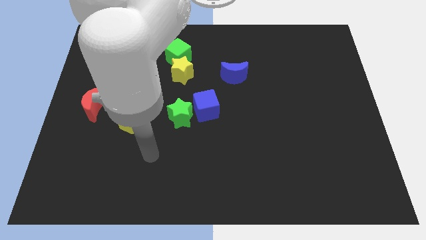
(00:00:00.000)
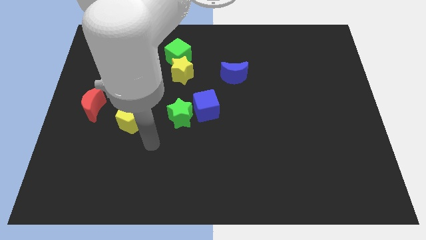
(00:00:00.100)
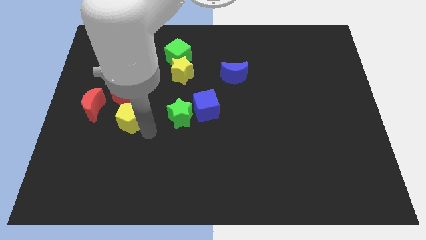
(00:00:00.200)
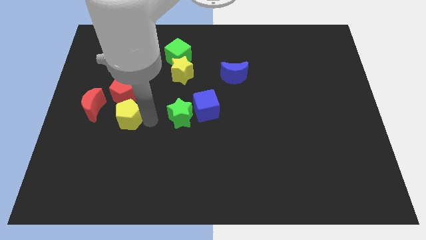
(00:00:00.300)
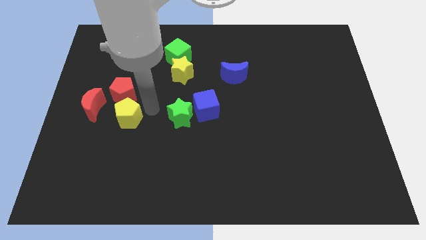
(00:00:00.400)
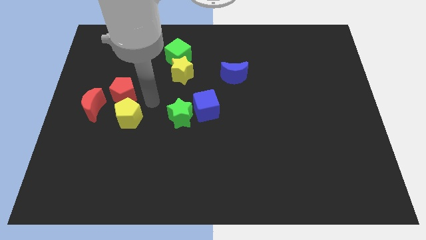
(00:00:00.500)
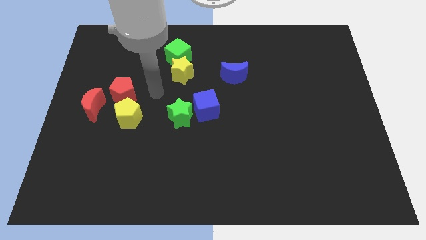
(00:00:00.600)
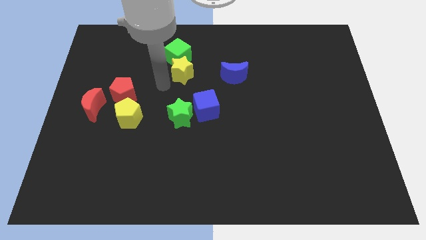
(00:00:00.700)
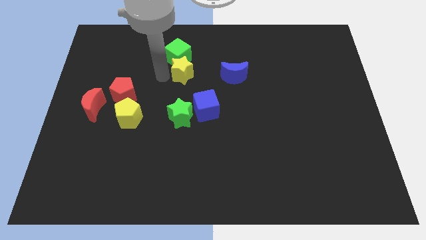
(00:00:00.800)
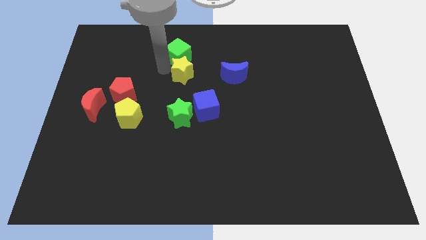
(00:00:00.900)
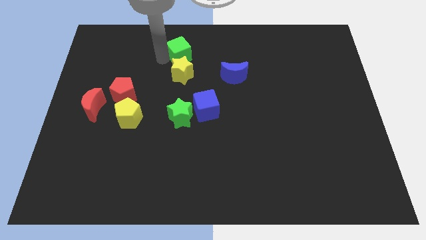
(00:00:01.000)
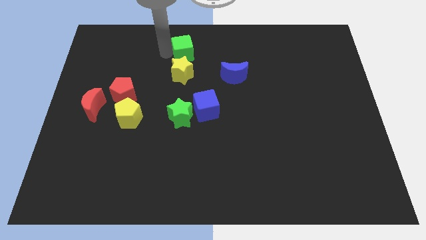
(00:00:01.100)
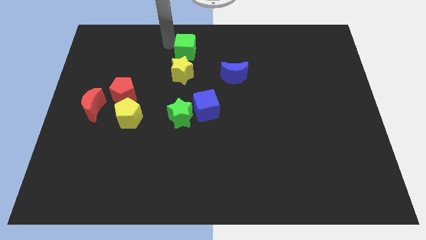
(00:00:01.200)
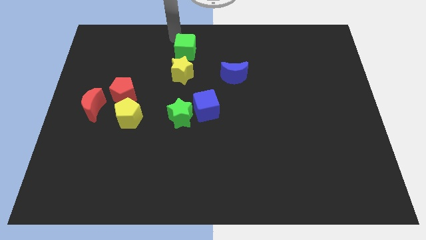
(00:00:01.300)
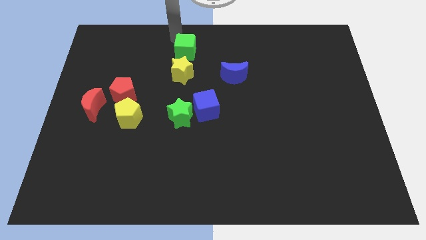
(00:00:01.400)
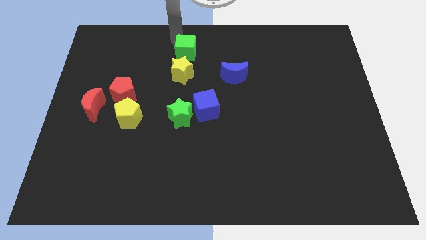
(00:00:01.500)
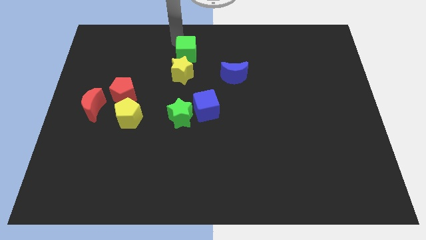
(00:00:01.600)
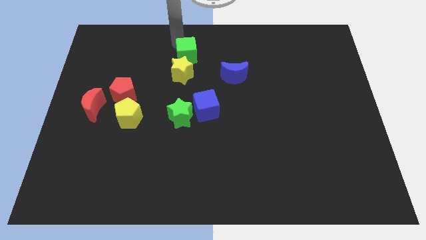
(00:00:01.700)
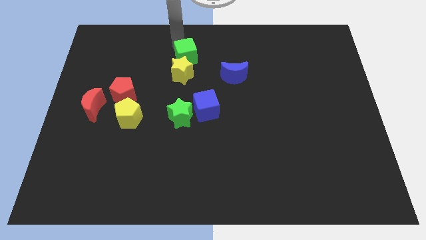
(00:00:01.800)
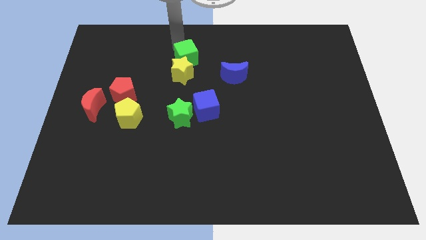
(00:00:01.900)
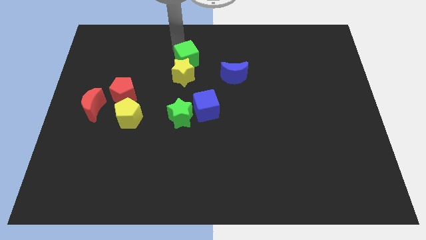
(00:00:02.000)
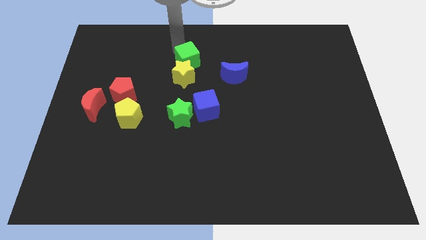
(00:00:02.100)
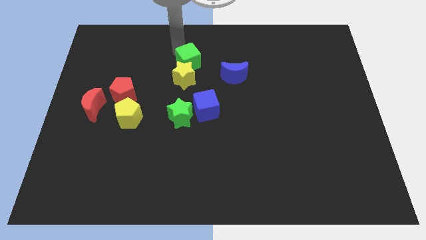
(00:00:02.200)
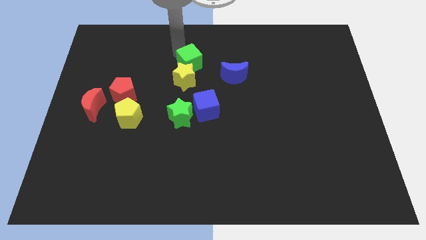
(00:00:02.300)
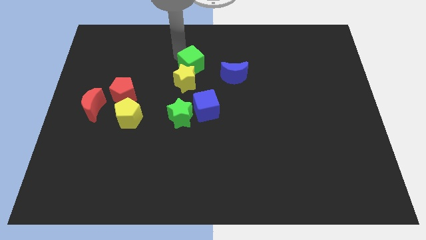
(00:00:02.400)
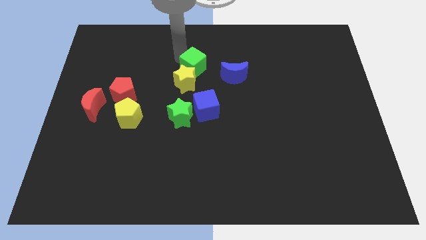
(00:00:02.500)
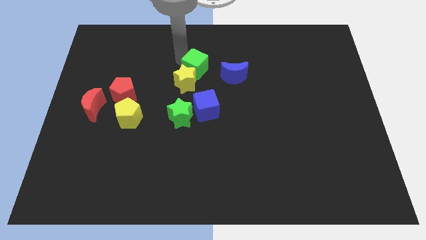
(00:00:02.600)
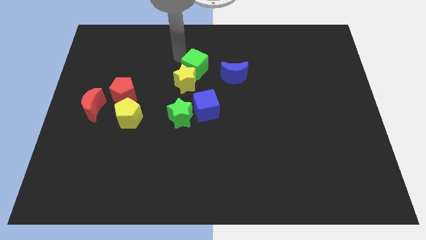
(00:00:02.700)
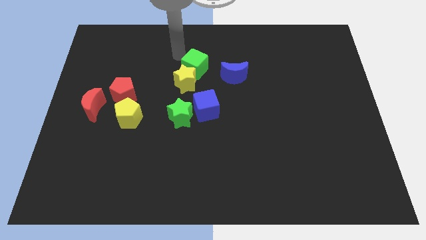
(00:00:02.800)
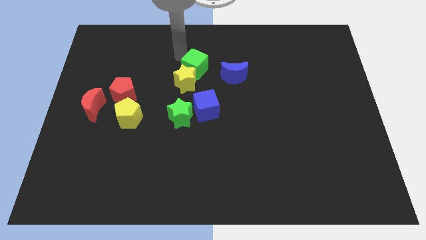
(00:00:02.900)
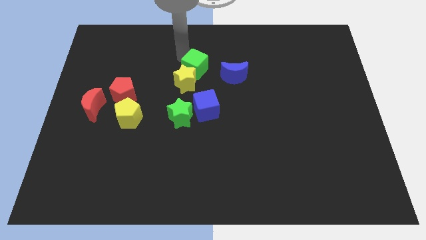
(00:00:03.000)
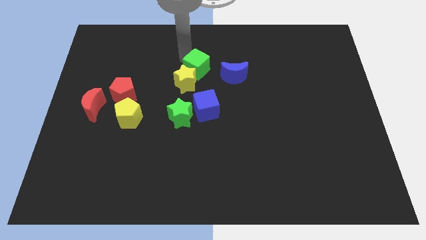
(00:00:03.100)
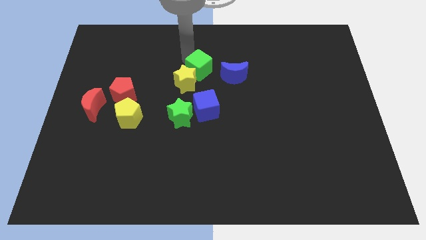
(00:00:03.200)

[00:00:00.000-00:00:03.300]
push the green cube down and to the right slightly

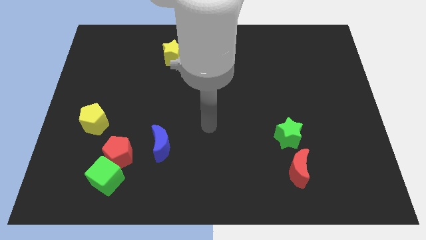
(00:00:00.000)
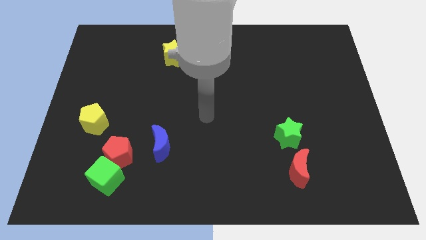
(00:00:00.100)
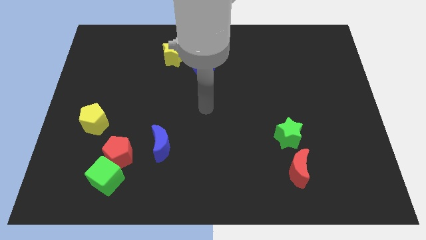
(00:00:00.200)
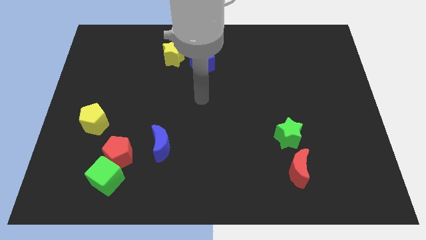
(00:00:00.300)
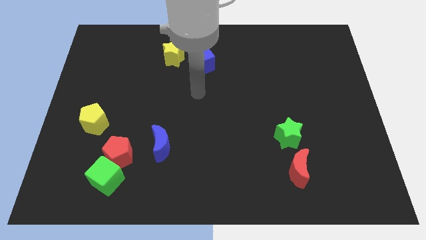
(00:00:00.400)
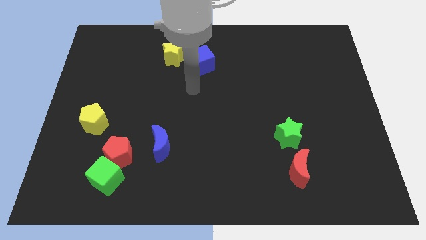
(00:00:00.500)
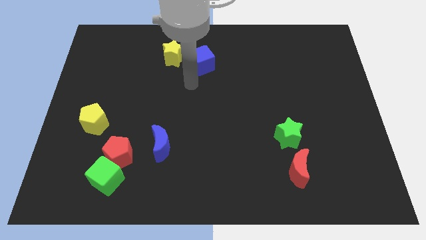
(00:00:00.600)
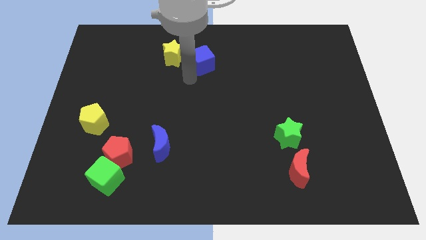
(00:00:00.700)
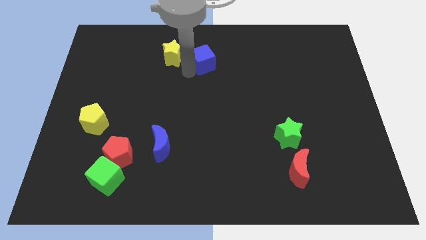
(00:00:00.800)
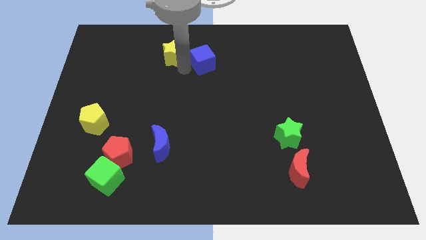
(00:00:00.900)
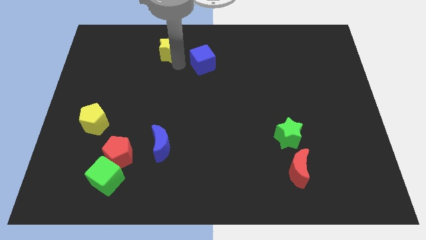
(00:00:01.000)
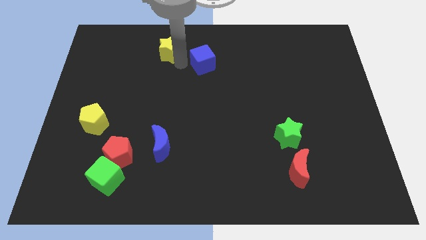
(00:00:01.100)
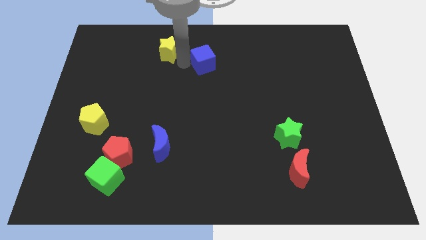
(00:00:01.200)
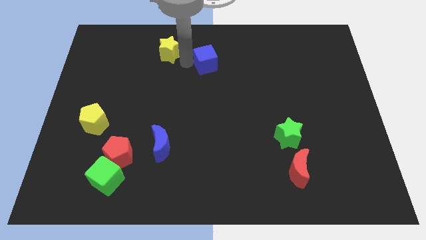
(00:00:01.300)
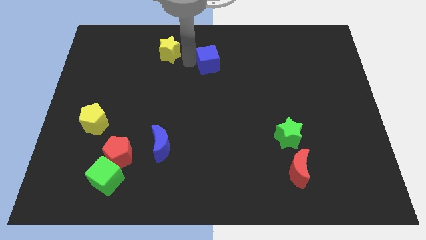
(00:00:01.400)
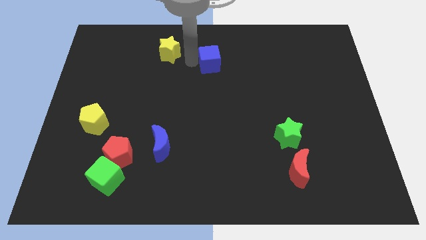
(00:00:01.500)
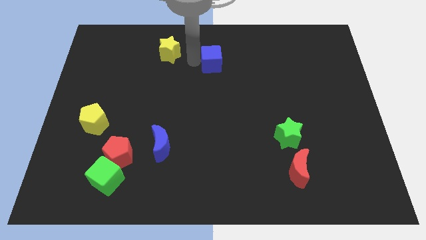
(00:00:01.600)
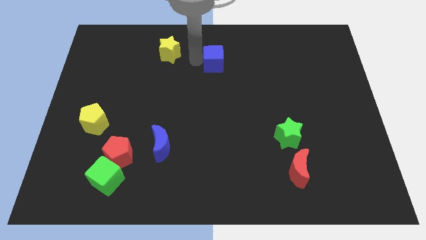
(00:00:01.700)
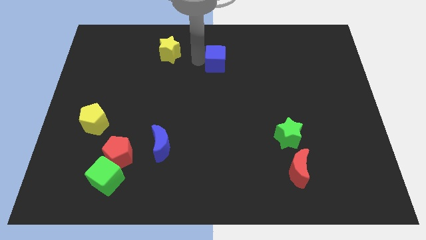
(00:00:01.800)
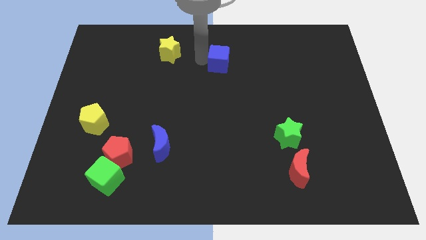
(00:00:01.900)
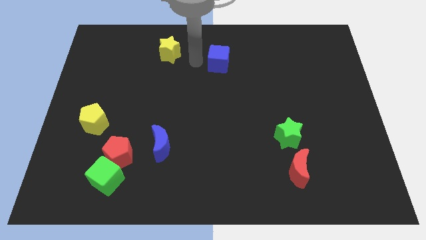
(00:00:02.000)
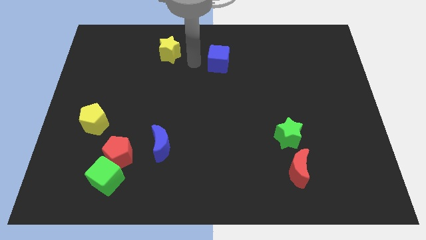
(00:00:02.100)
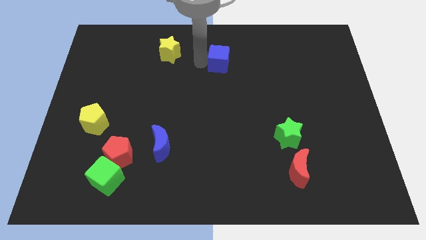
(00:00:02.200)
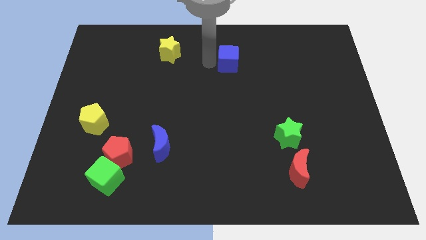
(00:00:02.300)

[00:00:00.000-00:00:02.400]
slightly push the blue cube right

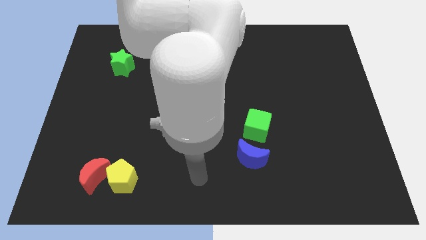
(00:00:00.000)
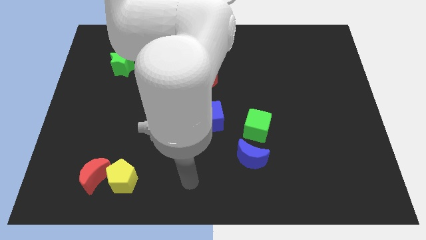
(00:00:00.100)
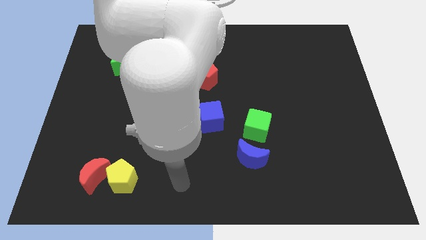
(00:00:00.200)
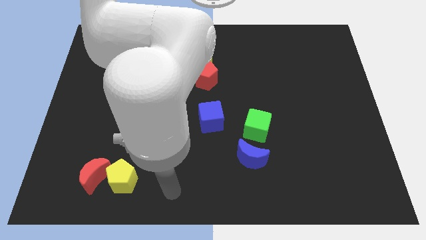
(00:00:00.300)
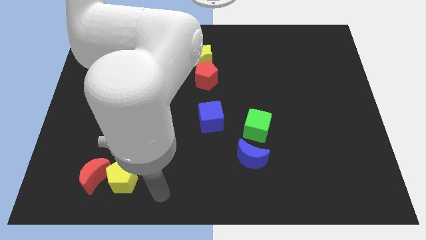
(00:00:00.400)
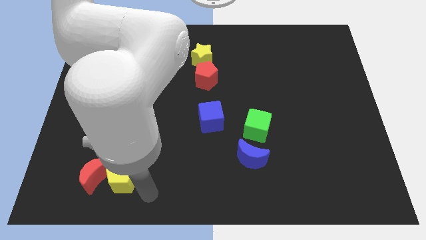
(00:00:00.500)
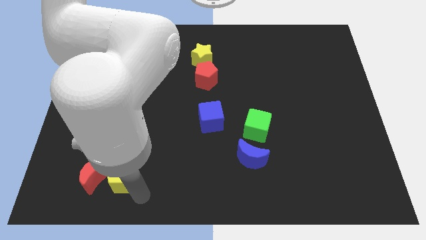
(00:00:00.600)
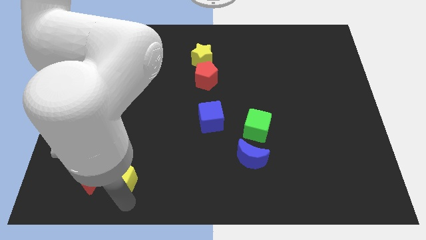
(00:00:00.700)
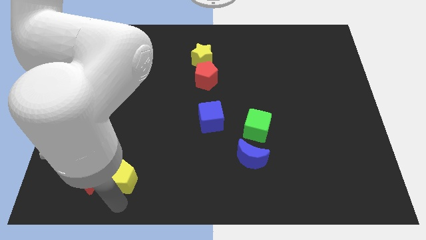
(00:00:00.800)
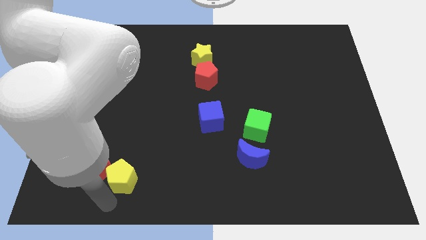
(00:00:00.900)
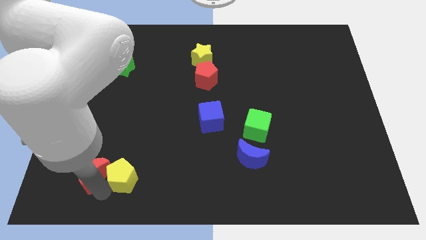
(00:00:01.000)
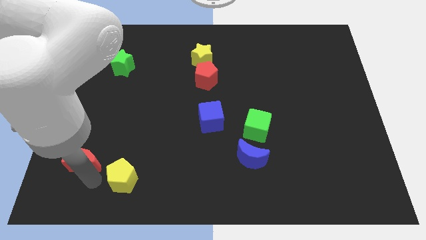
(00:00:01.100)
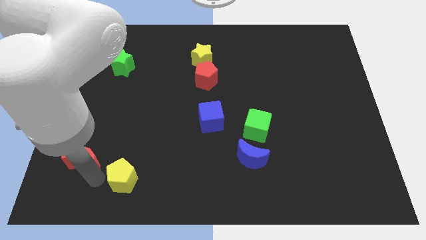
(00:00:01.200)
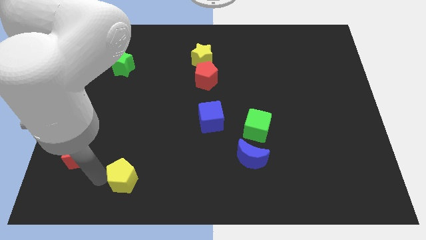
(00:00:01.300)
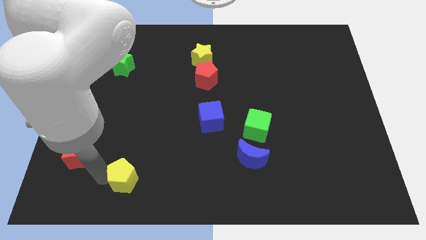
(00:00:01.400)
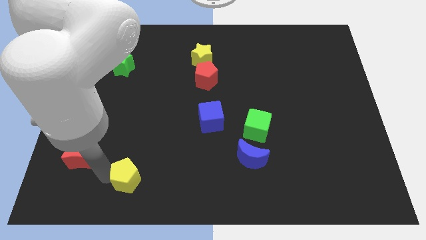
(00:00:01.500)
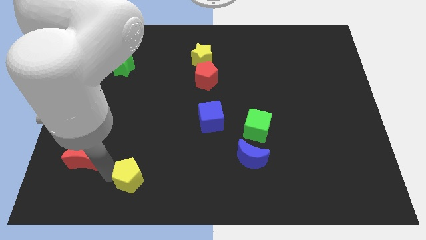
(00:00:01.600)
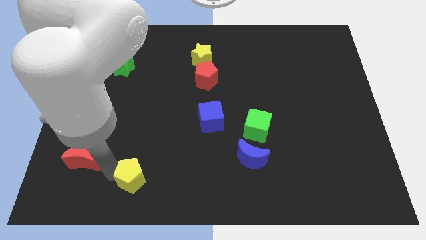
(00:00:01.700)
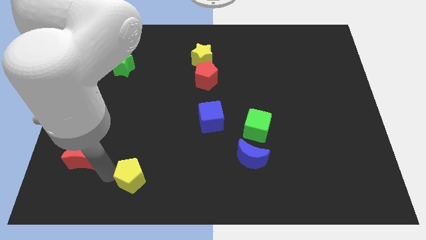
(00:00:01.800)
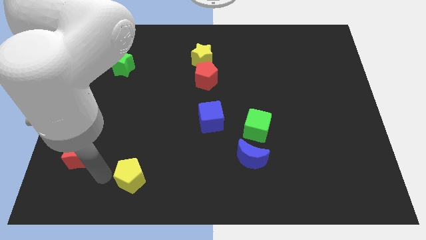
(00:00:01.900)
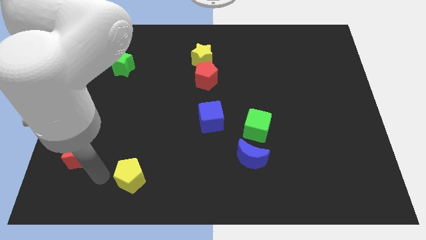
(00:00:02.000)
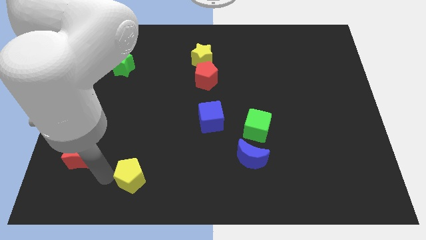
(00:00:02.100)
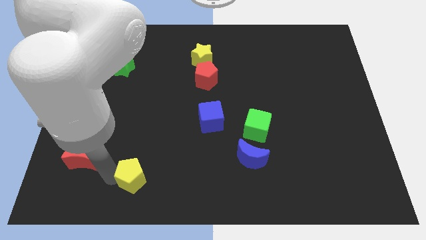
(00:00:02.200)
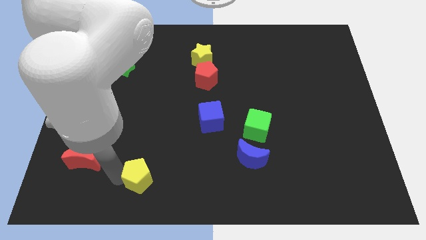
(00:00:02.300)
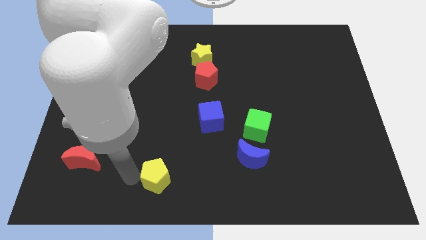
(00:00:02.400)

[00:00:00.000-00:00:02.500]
slide the yellow pentagon a little bit to the right
